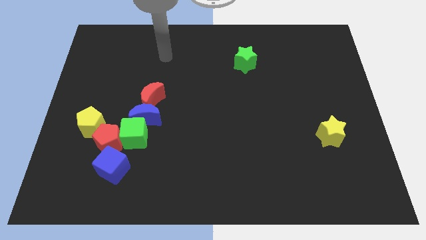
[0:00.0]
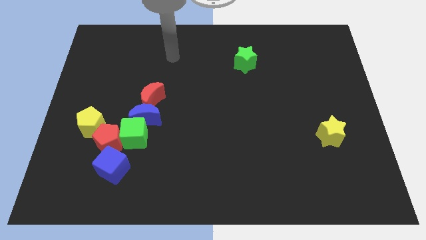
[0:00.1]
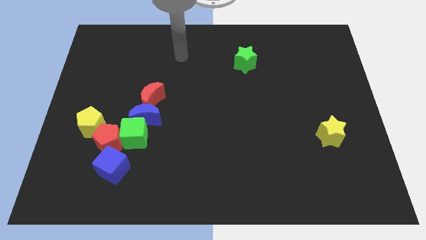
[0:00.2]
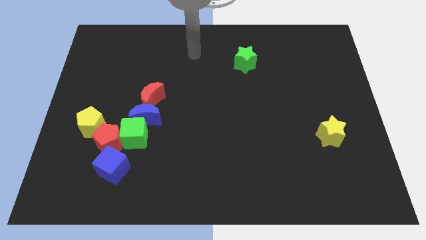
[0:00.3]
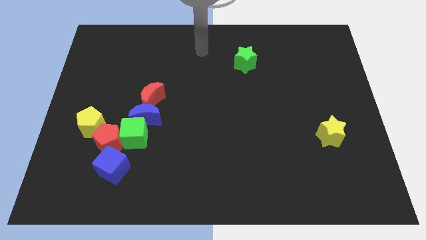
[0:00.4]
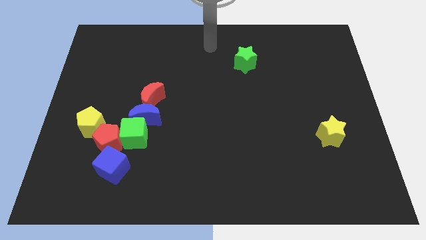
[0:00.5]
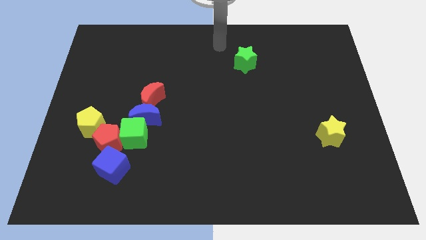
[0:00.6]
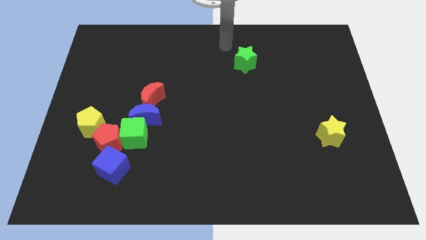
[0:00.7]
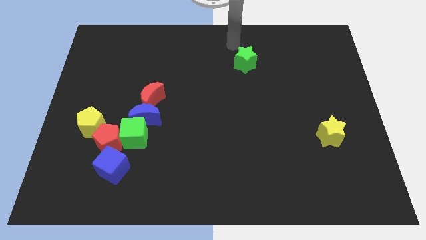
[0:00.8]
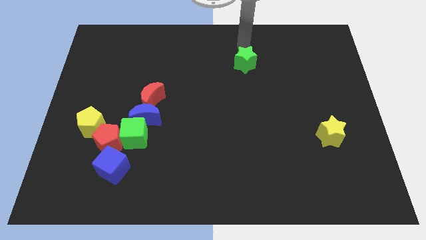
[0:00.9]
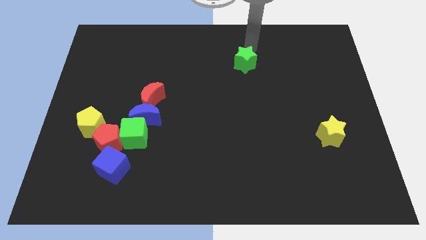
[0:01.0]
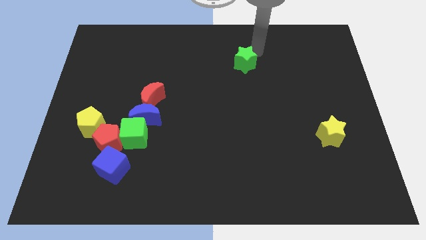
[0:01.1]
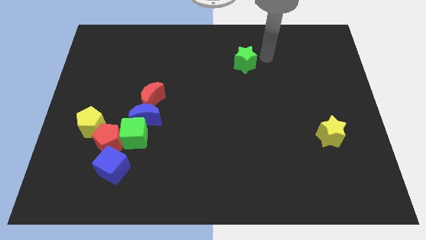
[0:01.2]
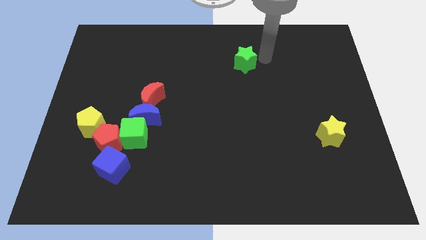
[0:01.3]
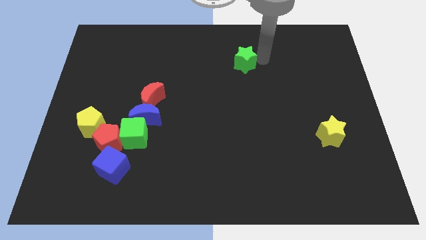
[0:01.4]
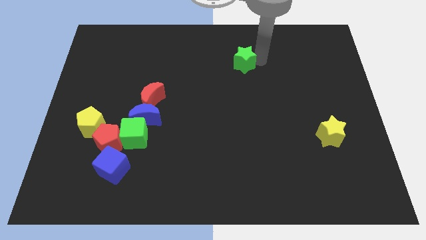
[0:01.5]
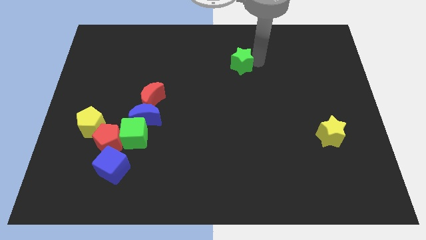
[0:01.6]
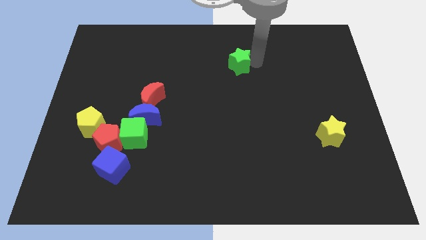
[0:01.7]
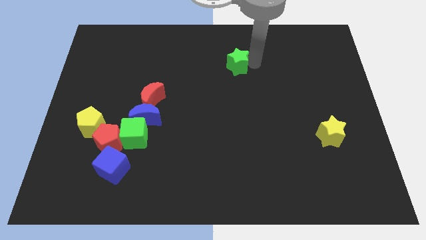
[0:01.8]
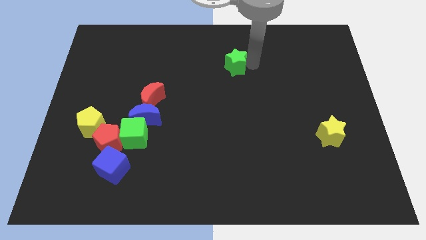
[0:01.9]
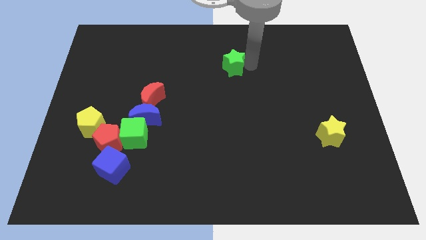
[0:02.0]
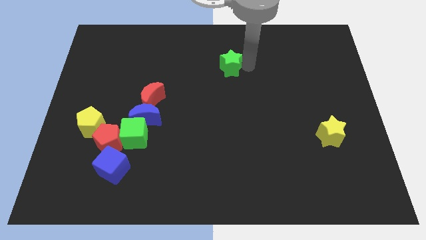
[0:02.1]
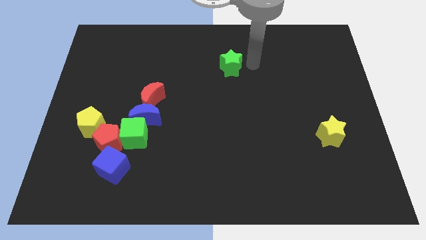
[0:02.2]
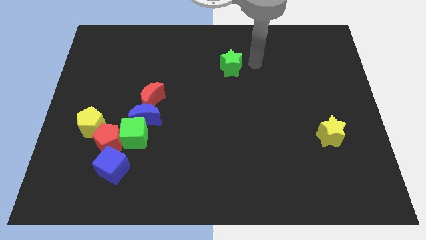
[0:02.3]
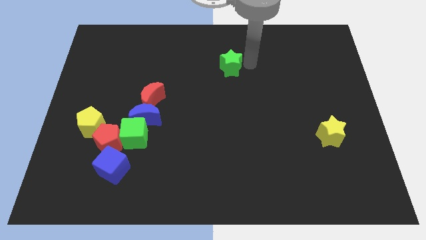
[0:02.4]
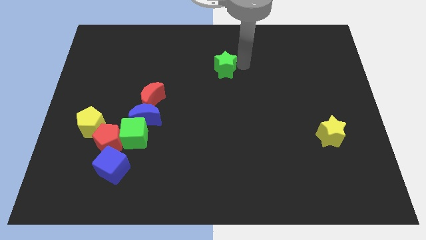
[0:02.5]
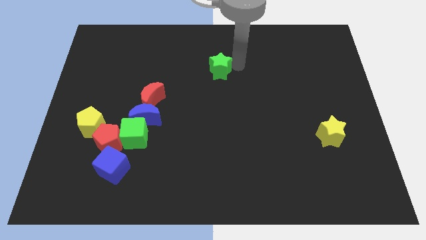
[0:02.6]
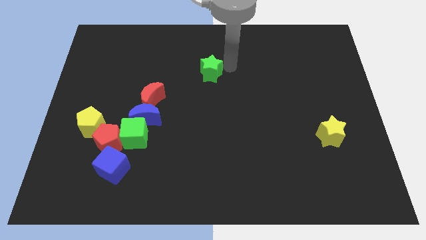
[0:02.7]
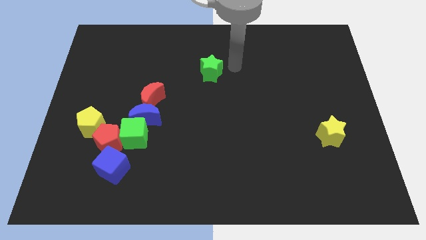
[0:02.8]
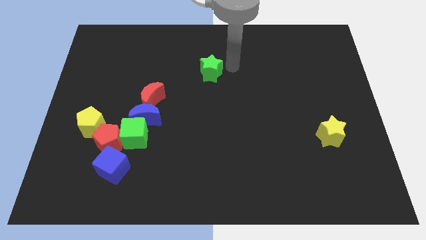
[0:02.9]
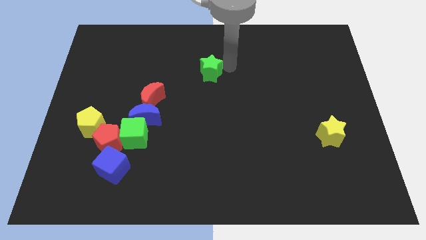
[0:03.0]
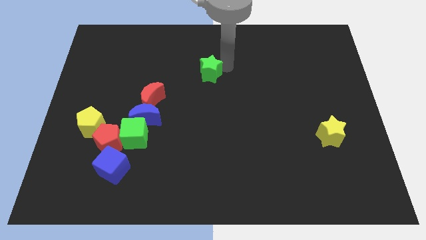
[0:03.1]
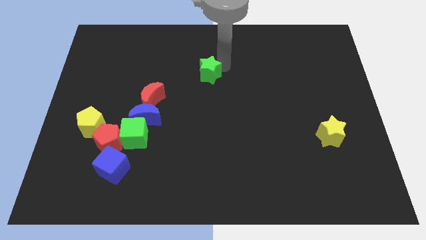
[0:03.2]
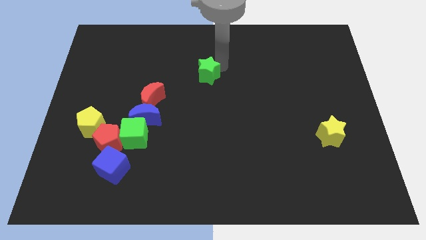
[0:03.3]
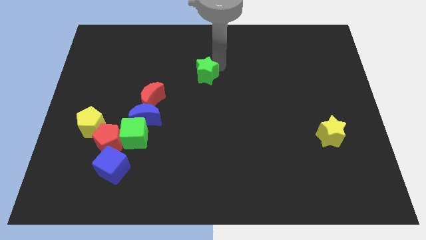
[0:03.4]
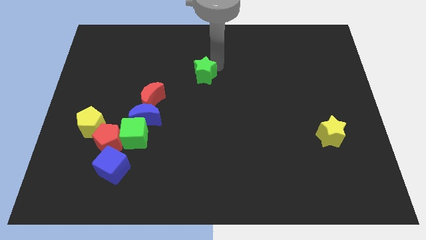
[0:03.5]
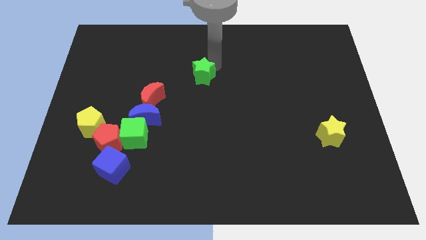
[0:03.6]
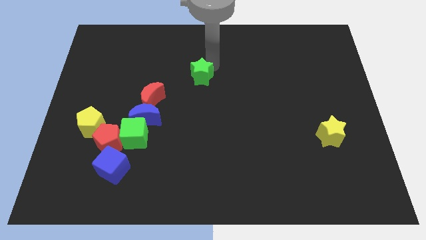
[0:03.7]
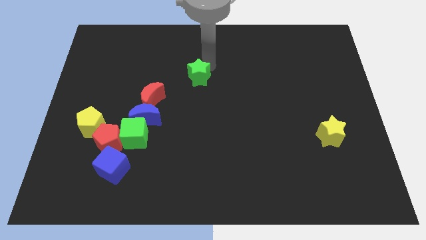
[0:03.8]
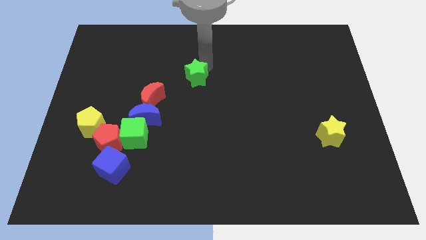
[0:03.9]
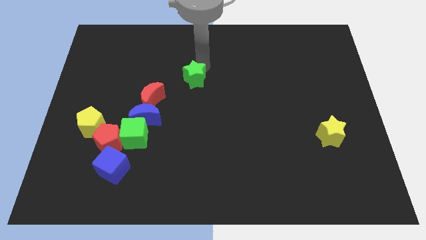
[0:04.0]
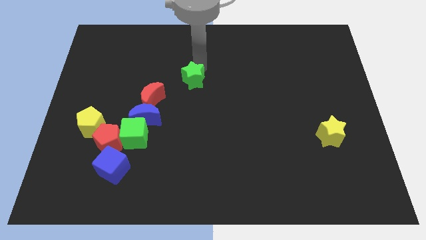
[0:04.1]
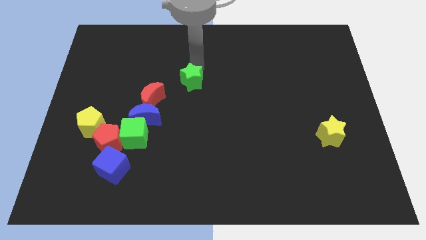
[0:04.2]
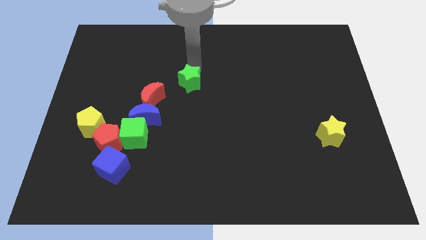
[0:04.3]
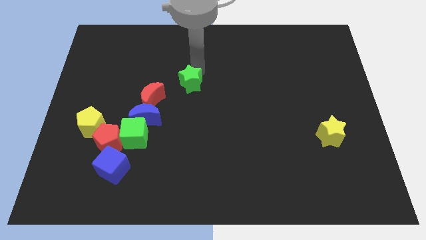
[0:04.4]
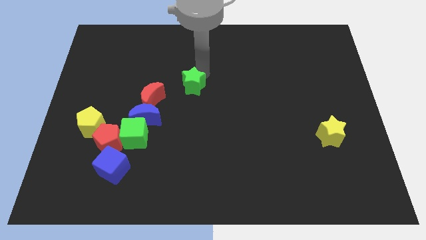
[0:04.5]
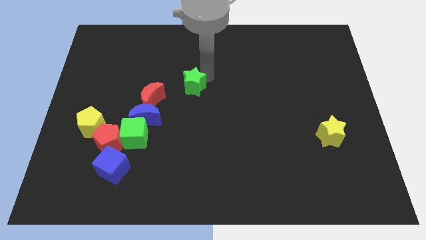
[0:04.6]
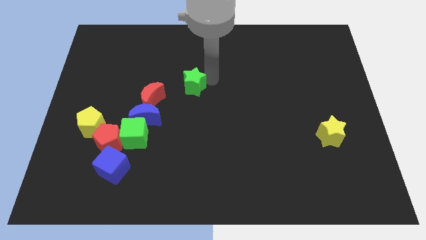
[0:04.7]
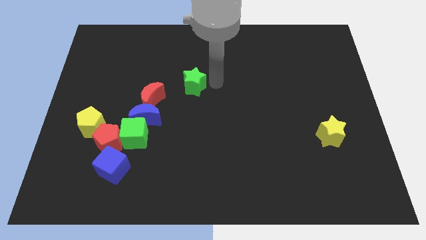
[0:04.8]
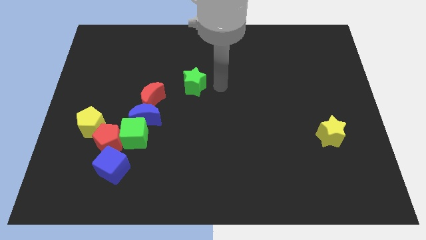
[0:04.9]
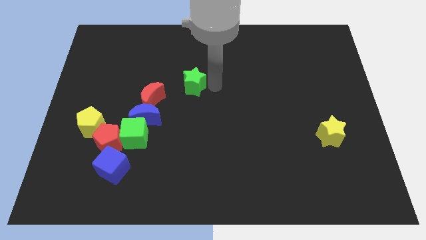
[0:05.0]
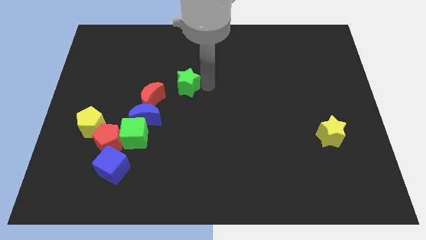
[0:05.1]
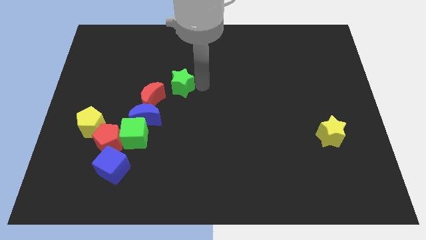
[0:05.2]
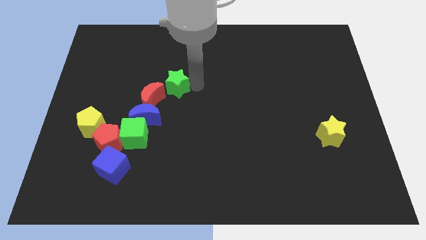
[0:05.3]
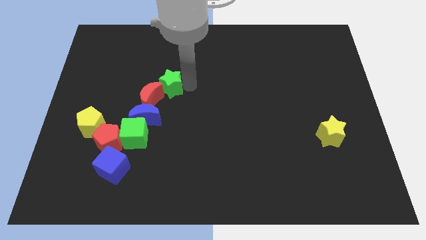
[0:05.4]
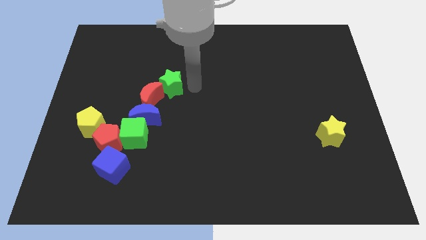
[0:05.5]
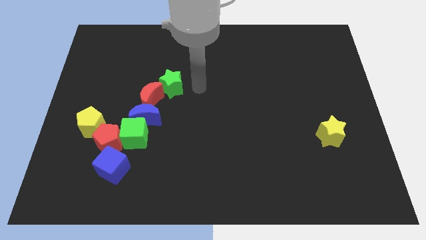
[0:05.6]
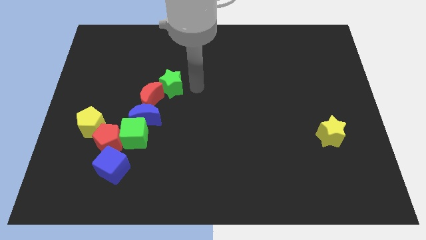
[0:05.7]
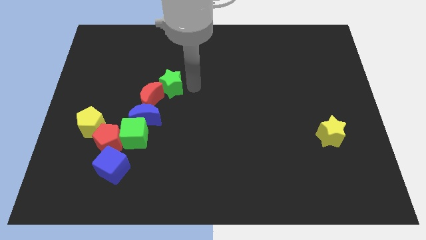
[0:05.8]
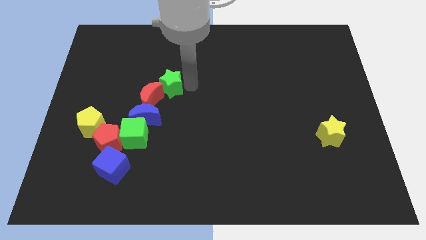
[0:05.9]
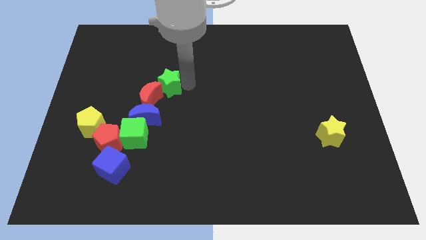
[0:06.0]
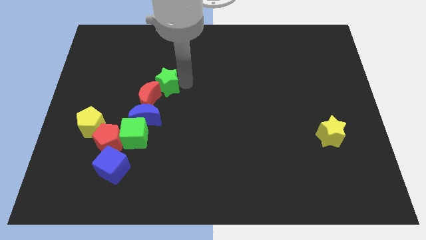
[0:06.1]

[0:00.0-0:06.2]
push the green star to the top side of the blue moon

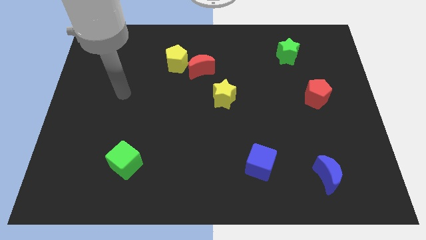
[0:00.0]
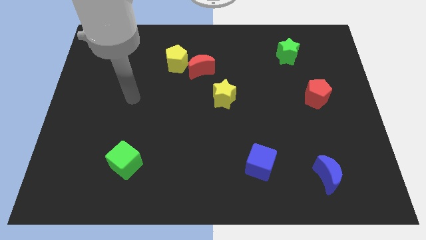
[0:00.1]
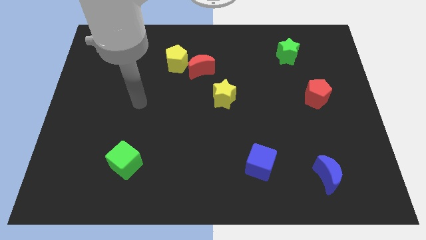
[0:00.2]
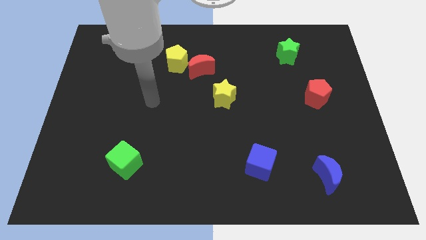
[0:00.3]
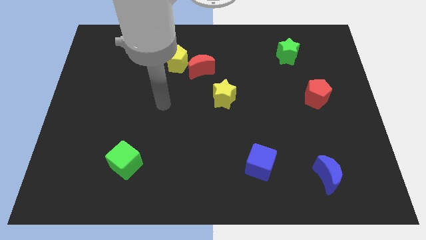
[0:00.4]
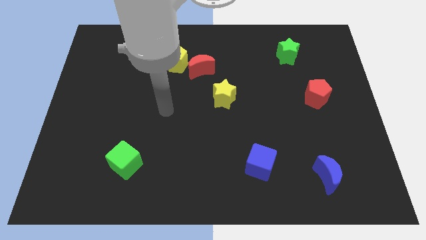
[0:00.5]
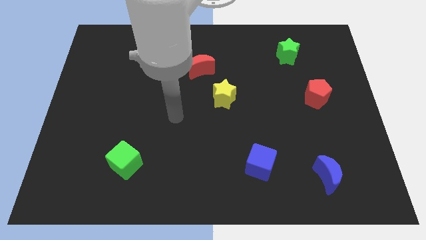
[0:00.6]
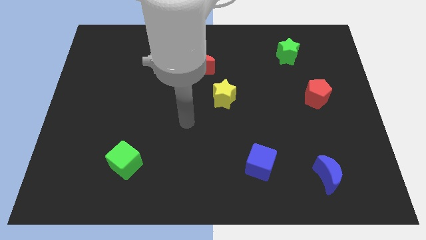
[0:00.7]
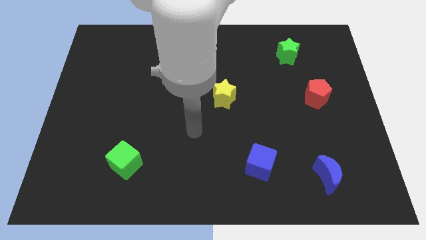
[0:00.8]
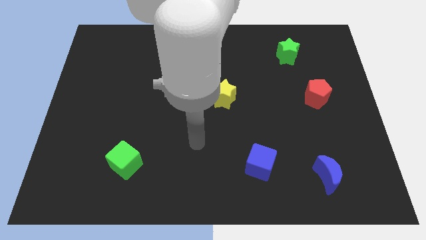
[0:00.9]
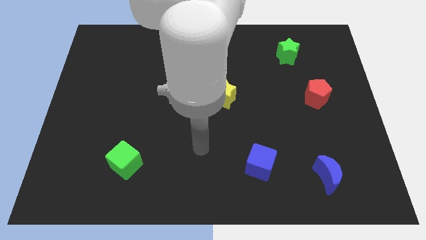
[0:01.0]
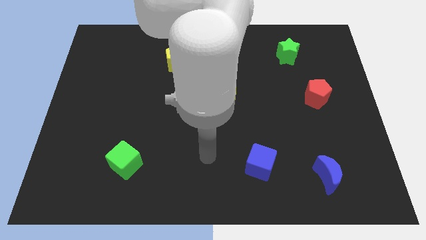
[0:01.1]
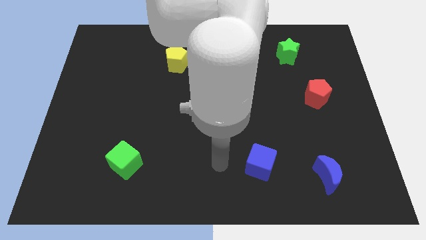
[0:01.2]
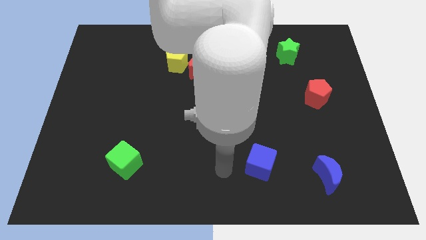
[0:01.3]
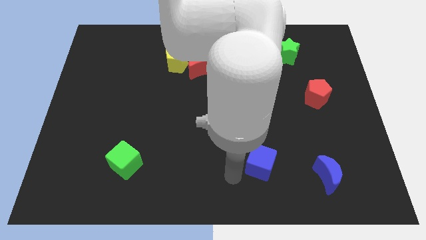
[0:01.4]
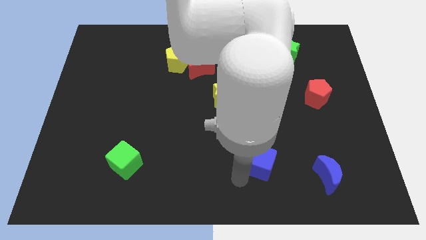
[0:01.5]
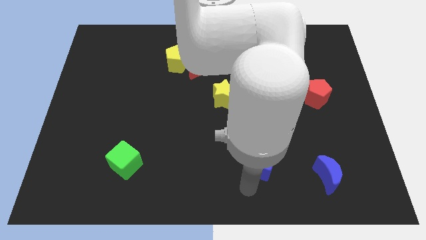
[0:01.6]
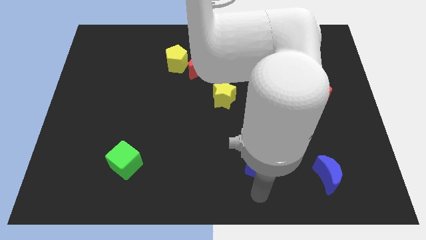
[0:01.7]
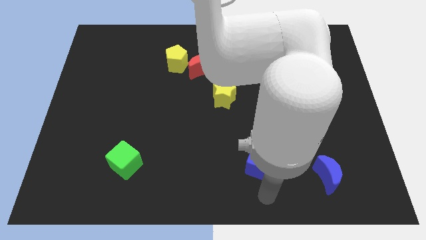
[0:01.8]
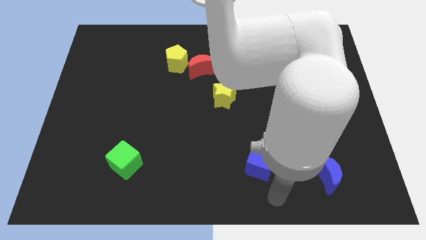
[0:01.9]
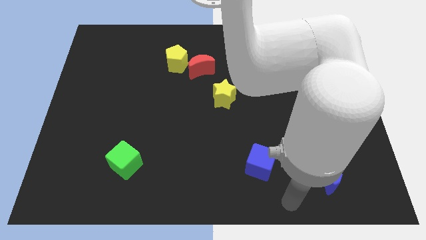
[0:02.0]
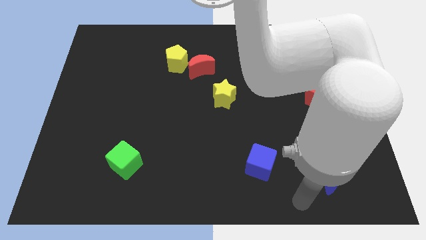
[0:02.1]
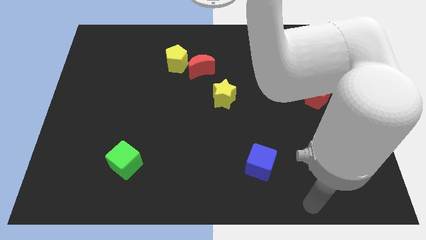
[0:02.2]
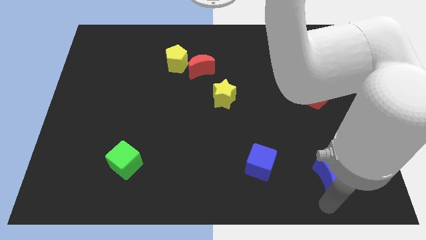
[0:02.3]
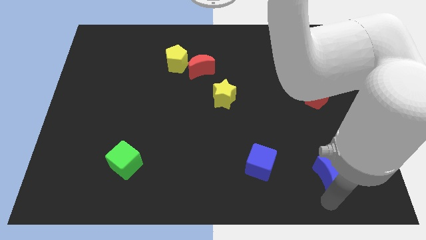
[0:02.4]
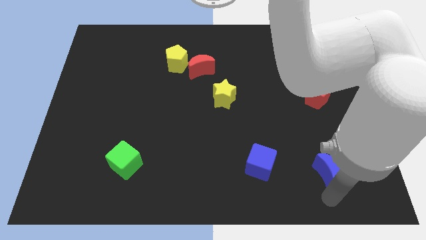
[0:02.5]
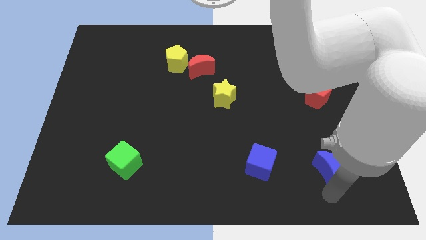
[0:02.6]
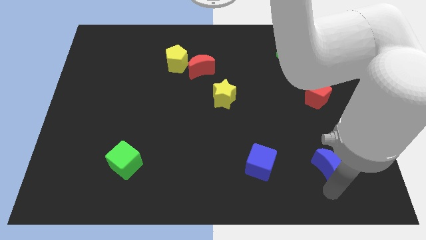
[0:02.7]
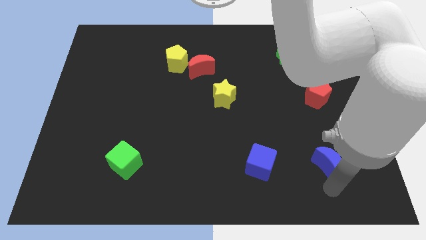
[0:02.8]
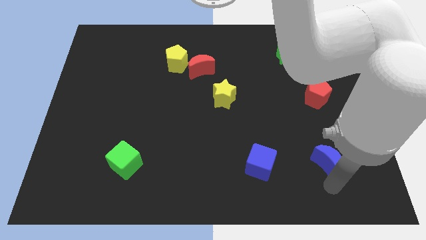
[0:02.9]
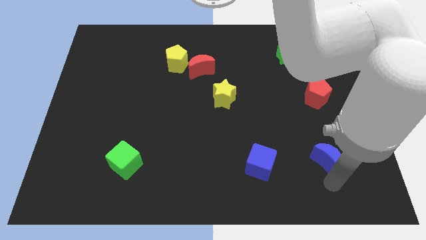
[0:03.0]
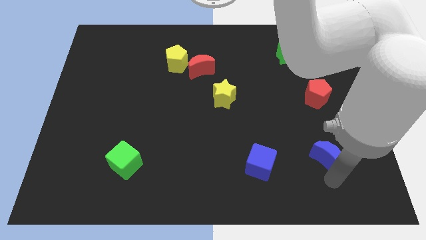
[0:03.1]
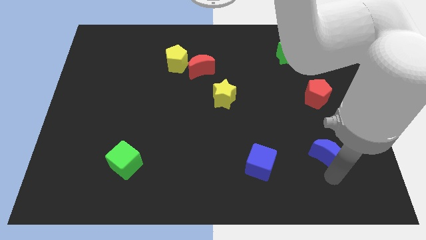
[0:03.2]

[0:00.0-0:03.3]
put the blue moon to the bottom of the red pentagon
